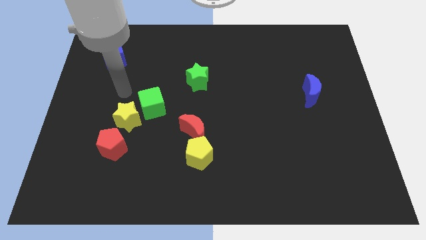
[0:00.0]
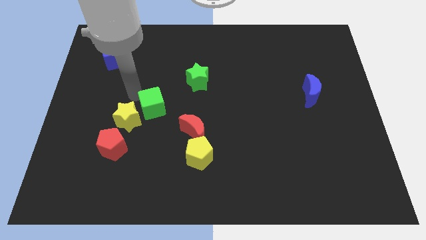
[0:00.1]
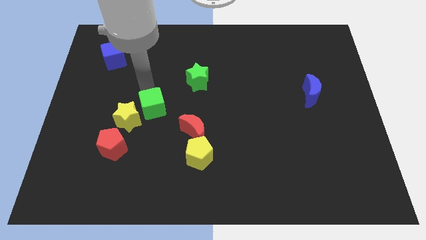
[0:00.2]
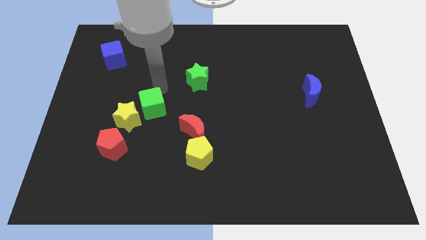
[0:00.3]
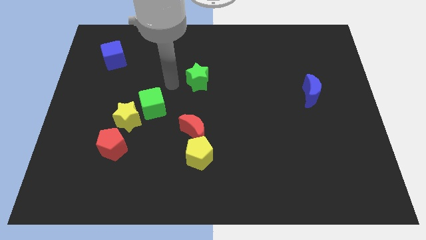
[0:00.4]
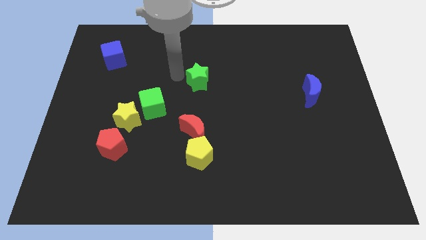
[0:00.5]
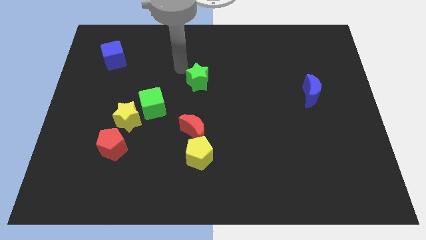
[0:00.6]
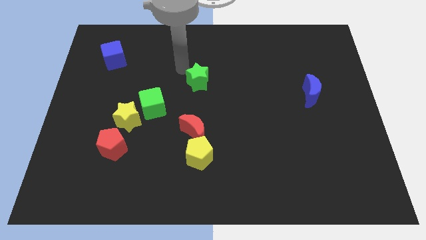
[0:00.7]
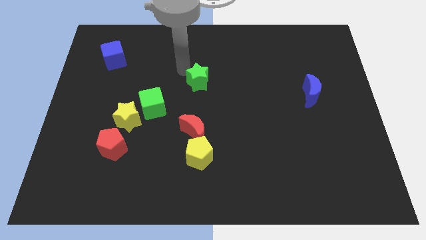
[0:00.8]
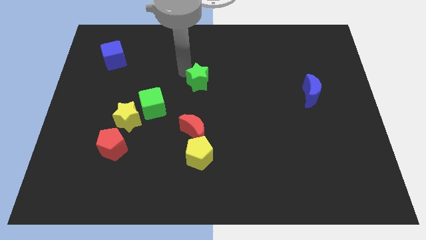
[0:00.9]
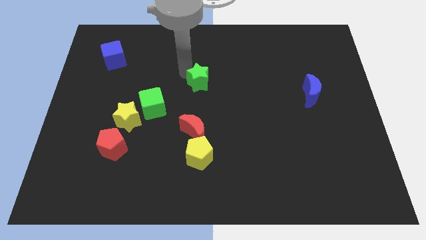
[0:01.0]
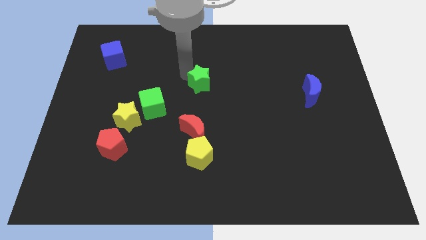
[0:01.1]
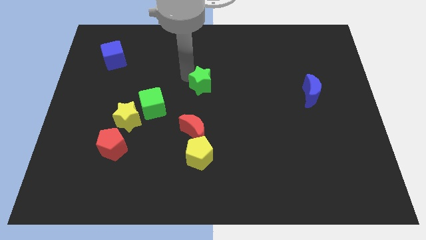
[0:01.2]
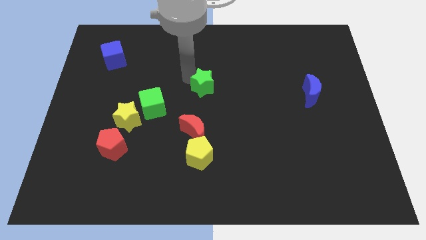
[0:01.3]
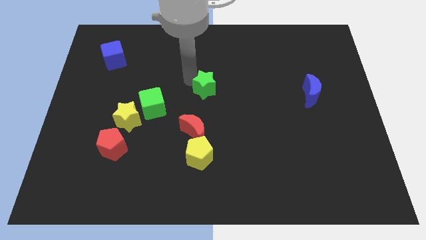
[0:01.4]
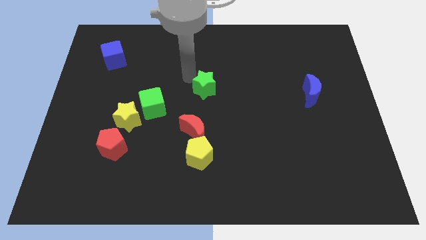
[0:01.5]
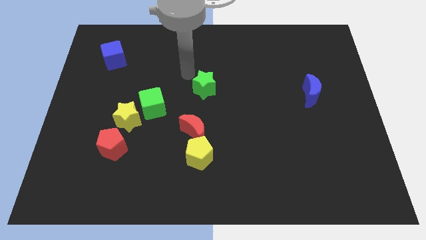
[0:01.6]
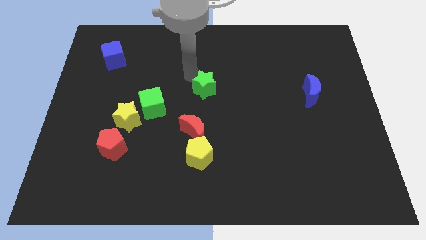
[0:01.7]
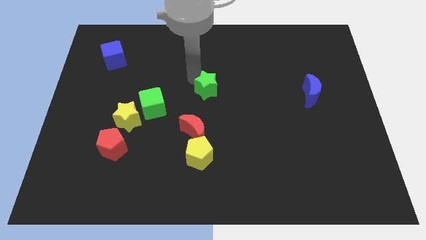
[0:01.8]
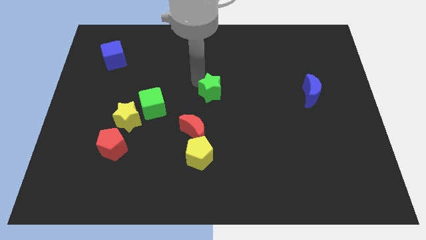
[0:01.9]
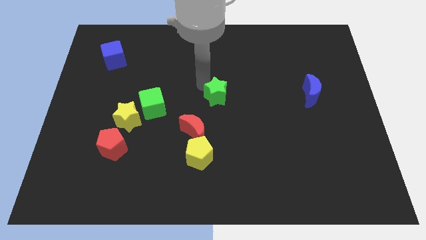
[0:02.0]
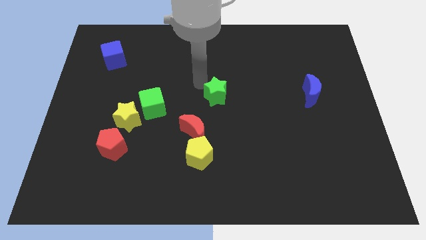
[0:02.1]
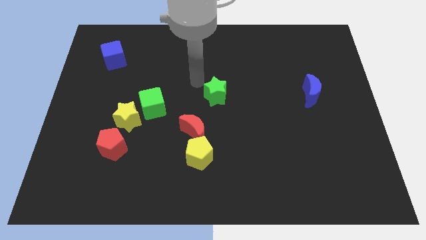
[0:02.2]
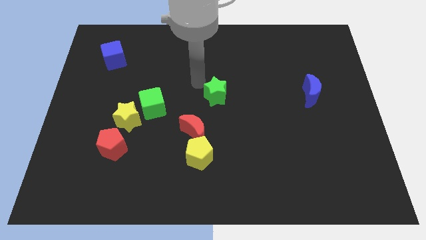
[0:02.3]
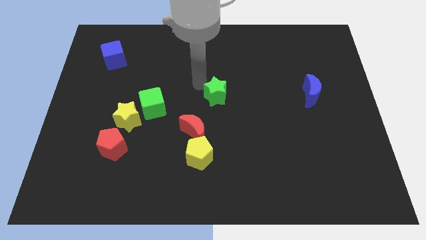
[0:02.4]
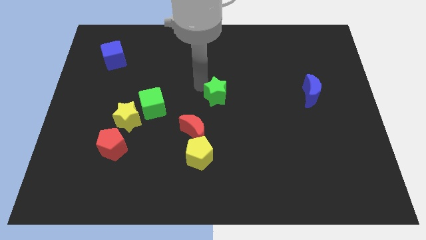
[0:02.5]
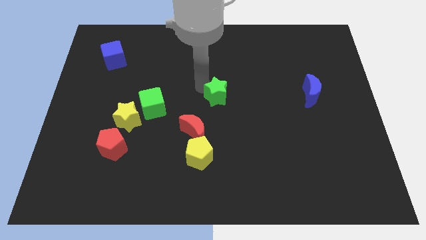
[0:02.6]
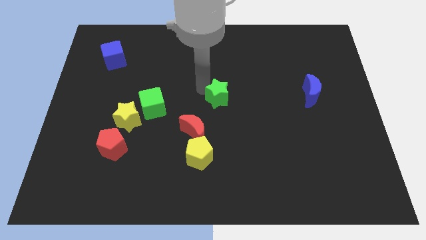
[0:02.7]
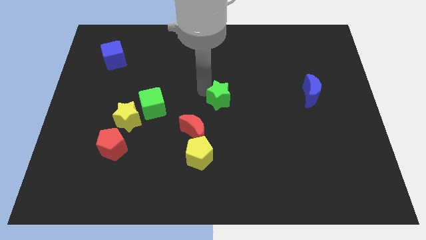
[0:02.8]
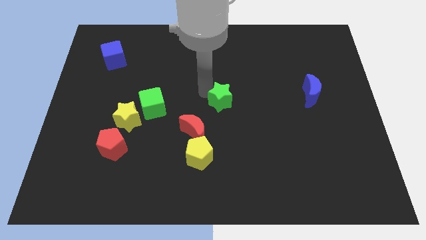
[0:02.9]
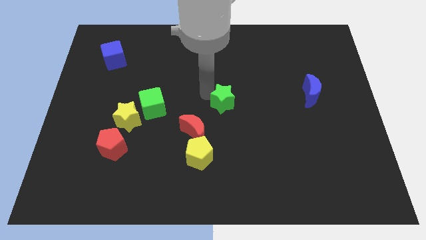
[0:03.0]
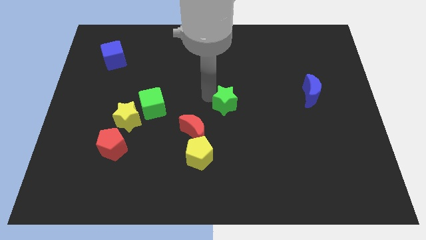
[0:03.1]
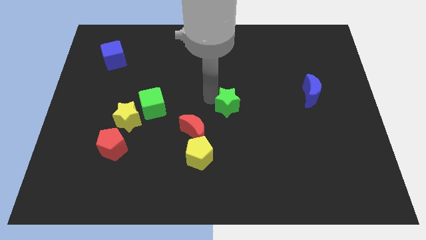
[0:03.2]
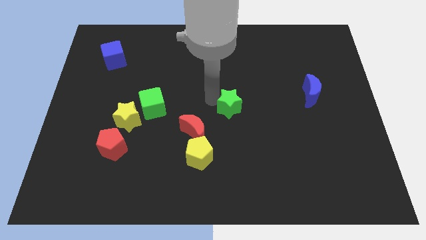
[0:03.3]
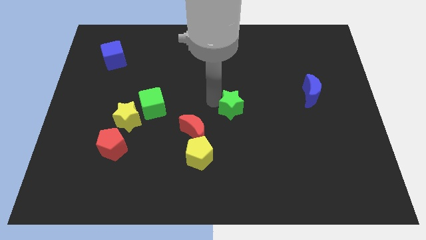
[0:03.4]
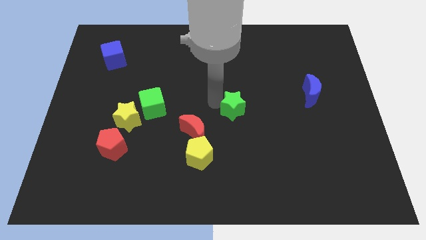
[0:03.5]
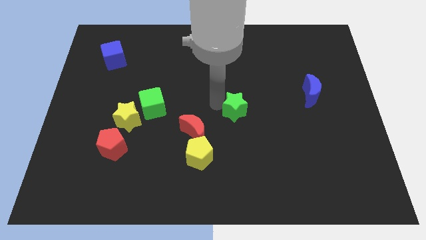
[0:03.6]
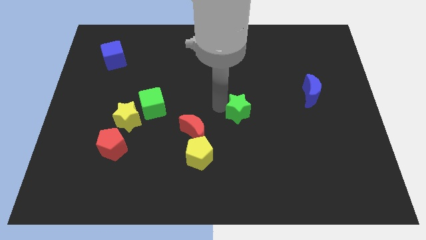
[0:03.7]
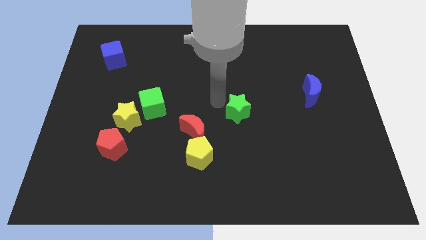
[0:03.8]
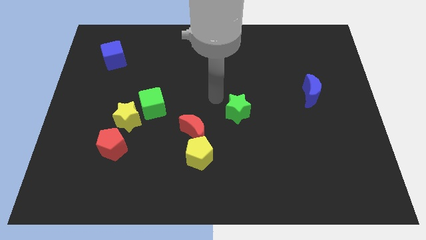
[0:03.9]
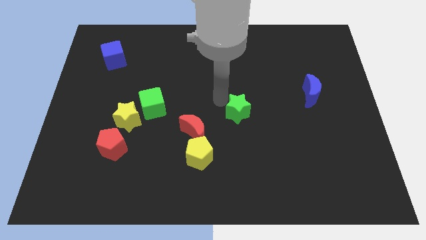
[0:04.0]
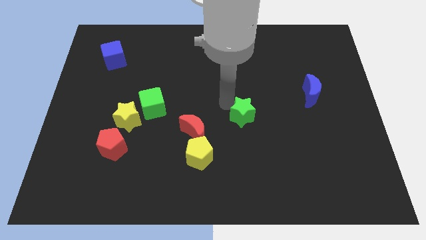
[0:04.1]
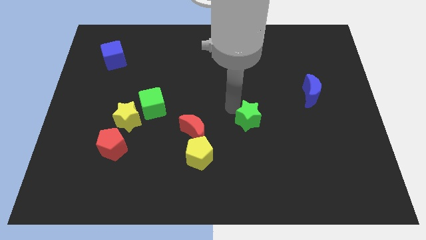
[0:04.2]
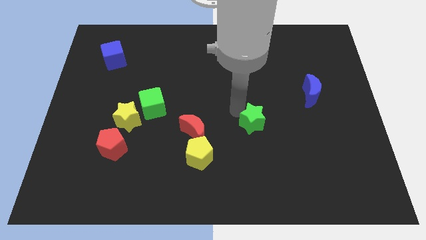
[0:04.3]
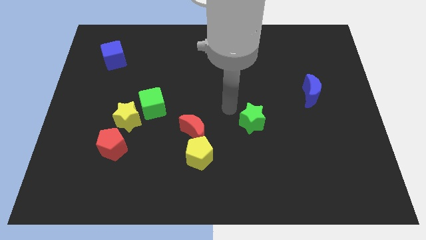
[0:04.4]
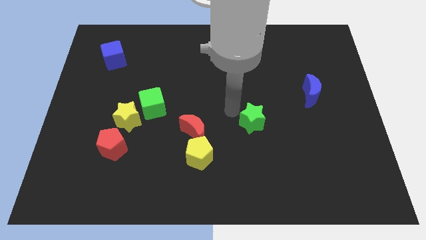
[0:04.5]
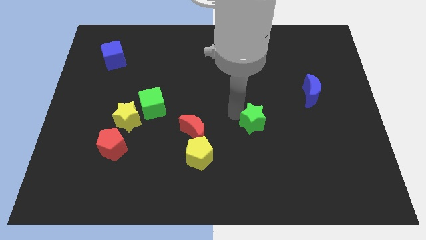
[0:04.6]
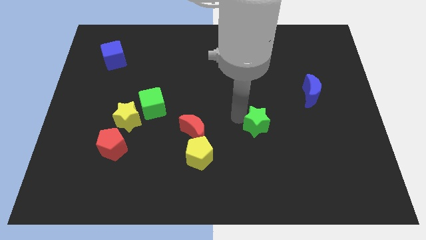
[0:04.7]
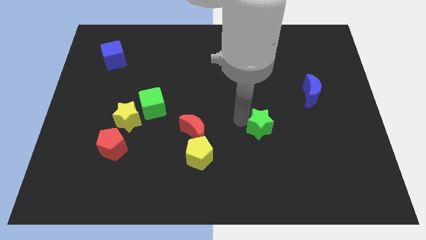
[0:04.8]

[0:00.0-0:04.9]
move the green star down and right diagonally

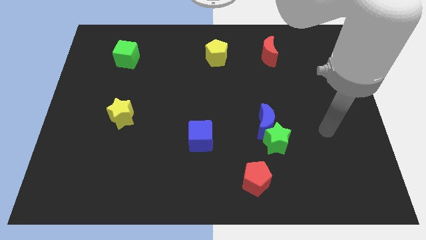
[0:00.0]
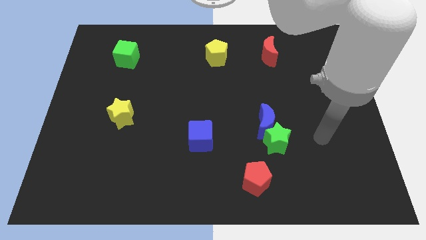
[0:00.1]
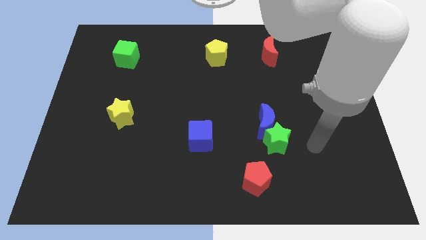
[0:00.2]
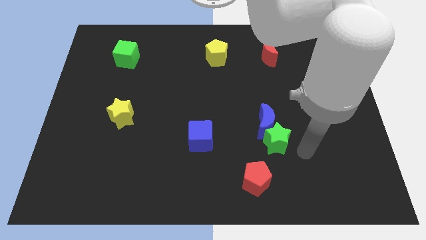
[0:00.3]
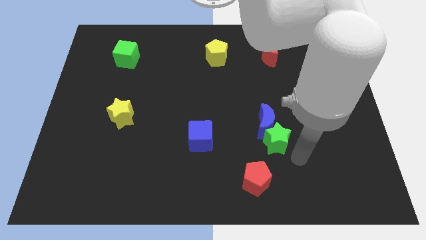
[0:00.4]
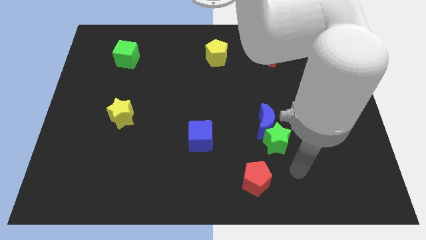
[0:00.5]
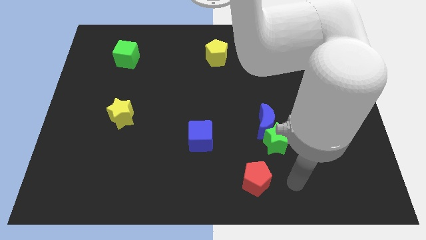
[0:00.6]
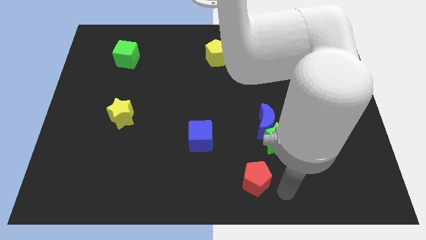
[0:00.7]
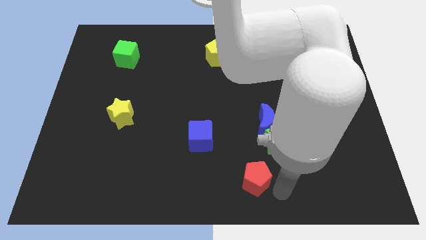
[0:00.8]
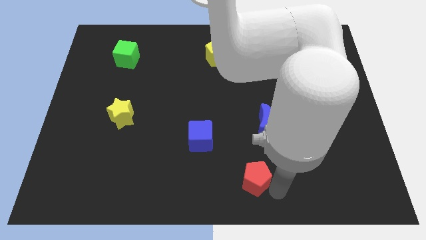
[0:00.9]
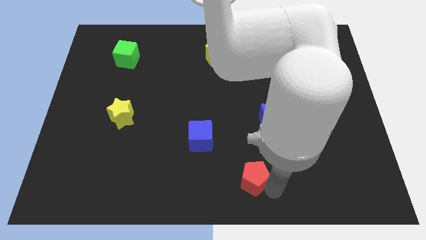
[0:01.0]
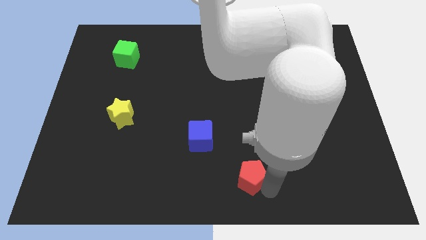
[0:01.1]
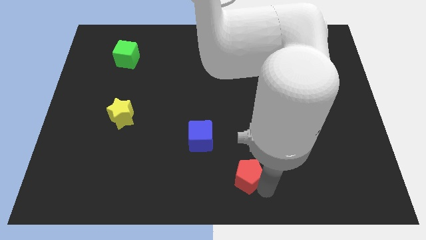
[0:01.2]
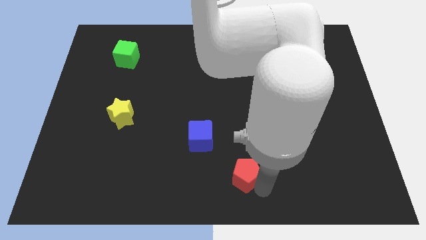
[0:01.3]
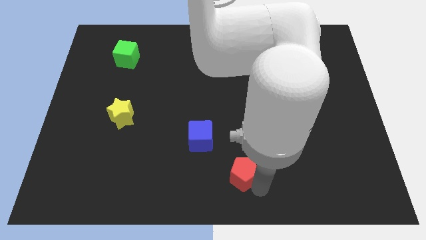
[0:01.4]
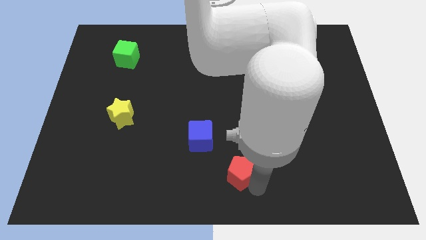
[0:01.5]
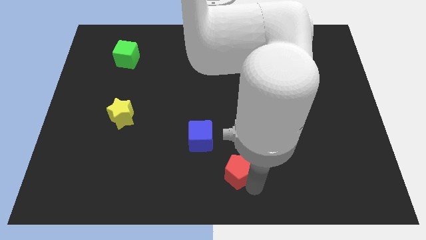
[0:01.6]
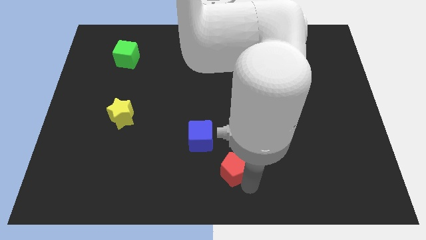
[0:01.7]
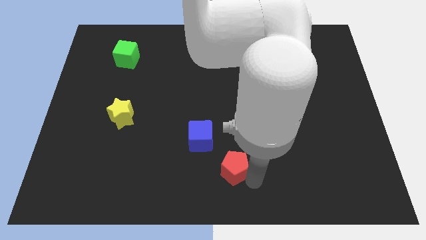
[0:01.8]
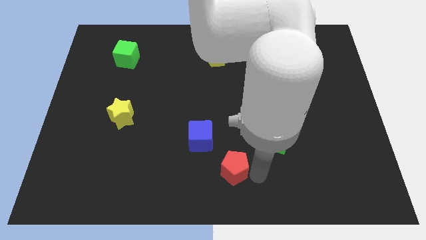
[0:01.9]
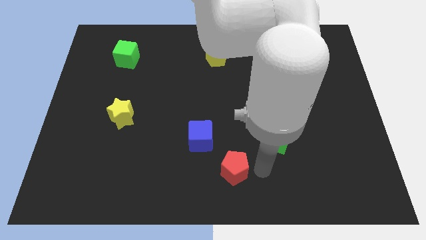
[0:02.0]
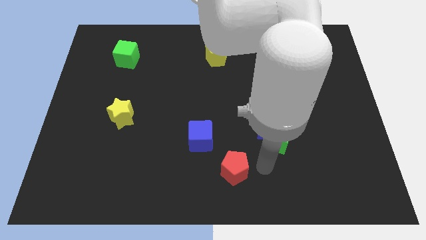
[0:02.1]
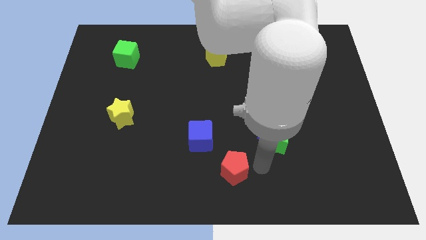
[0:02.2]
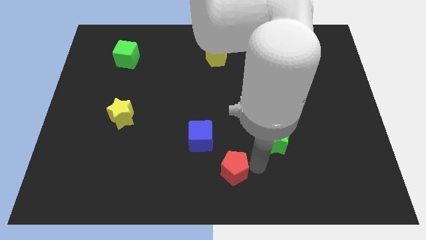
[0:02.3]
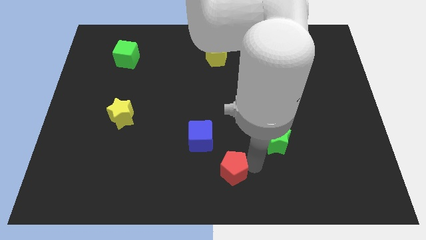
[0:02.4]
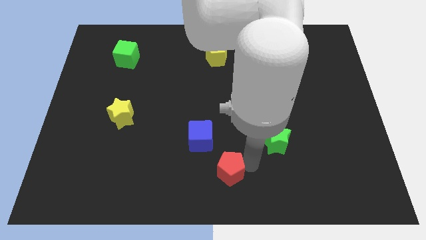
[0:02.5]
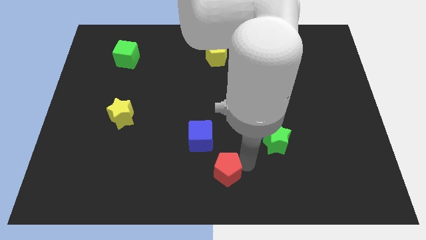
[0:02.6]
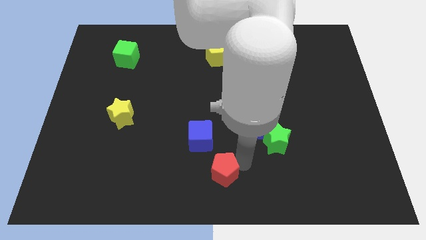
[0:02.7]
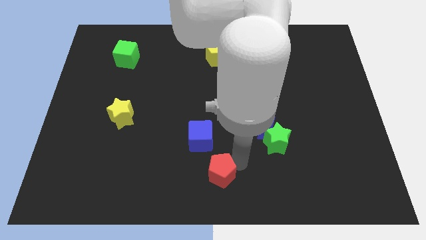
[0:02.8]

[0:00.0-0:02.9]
slightly push the red pentagon to the left

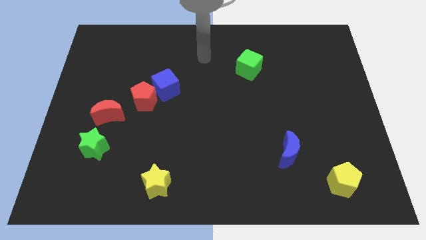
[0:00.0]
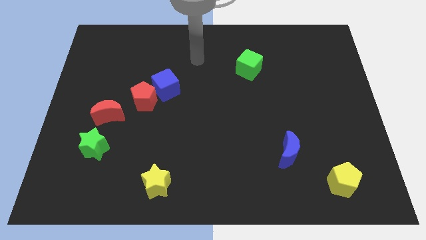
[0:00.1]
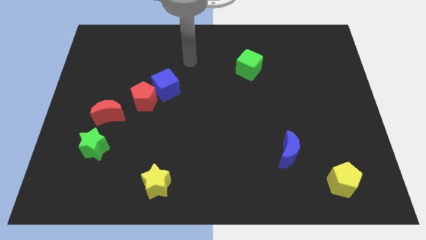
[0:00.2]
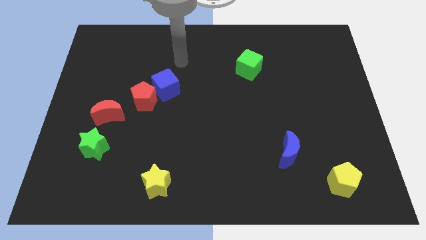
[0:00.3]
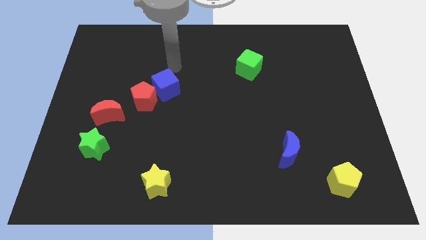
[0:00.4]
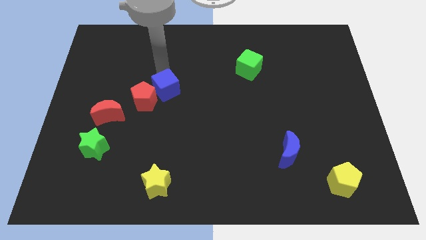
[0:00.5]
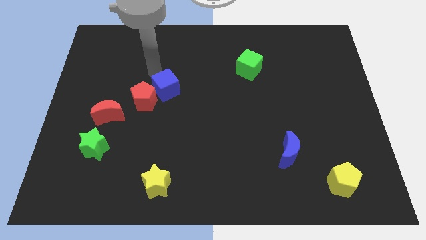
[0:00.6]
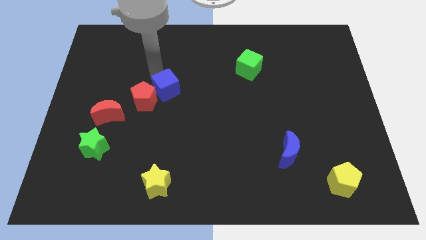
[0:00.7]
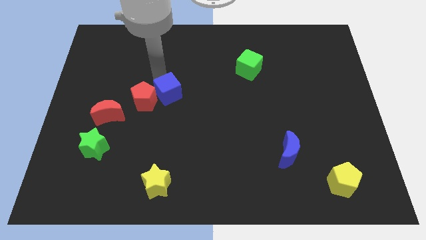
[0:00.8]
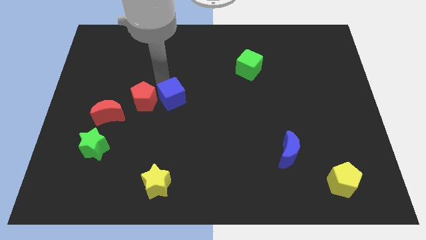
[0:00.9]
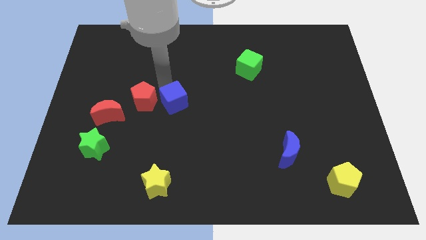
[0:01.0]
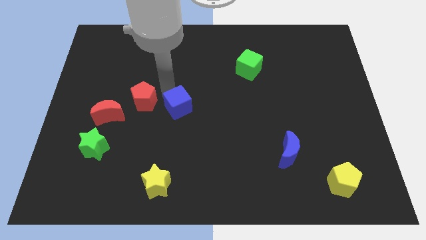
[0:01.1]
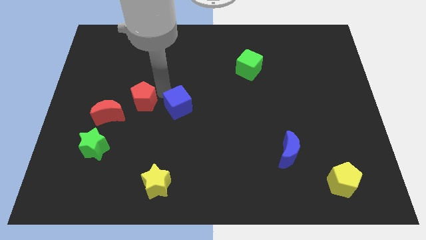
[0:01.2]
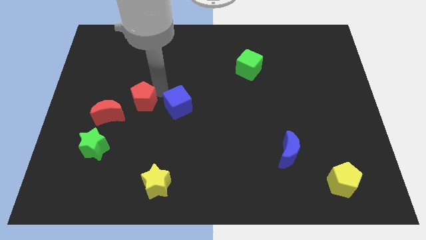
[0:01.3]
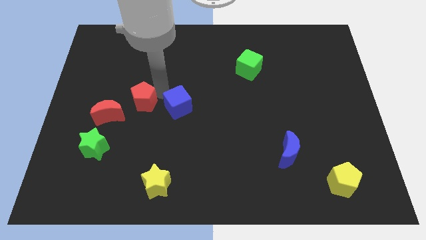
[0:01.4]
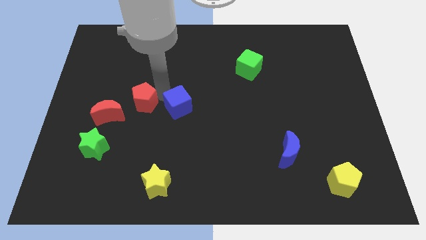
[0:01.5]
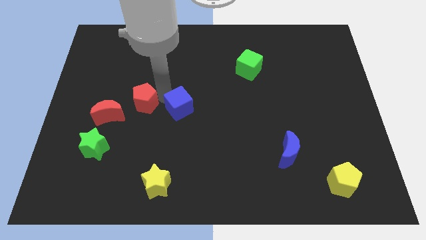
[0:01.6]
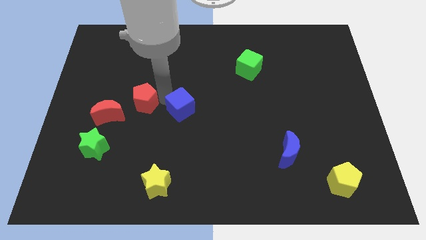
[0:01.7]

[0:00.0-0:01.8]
move the blue cube somewhat down and then to the right
